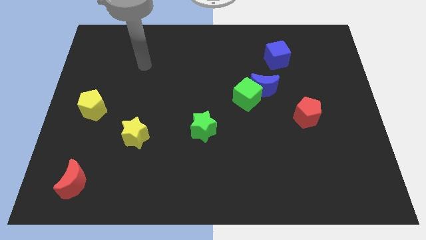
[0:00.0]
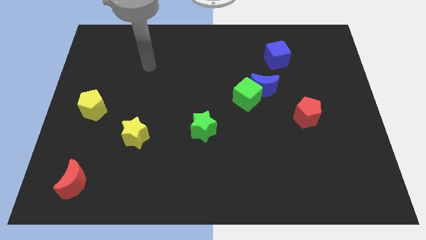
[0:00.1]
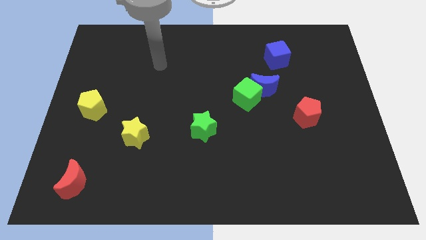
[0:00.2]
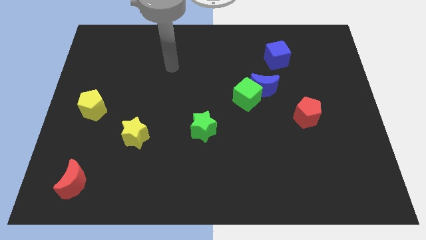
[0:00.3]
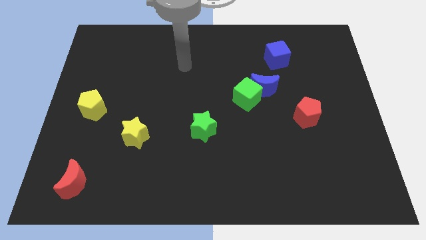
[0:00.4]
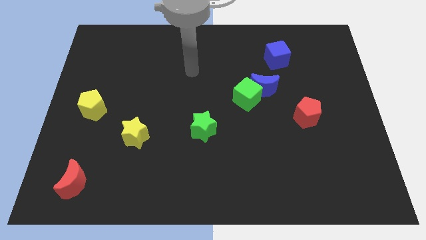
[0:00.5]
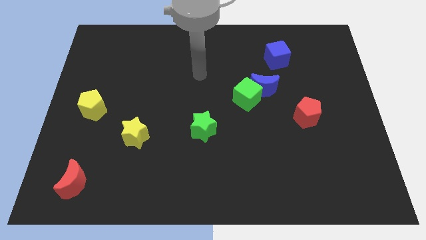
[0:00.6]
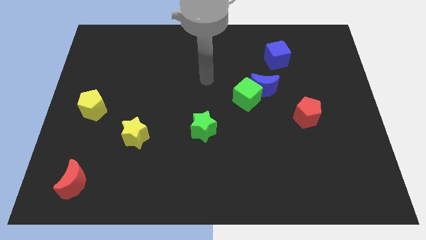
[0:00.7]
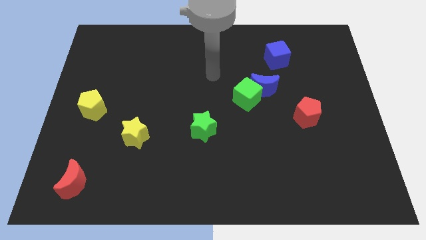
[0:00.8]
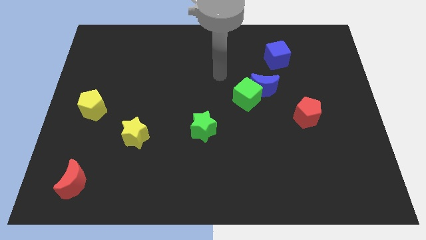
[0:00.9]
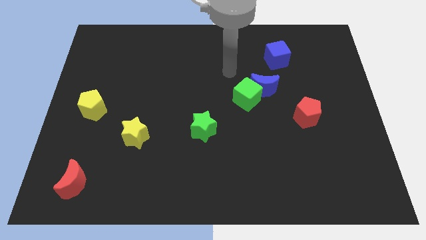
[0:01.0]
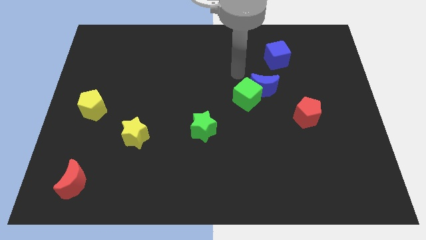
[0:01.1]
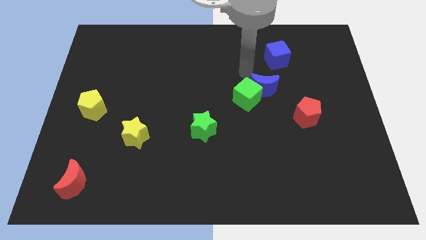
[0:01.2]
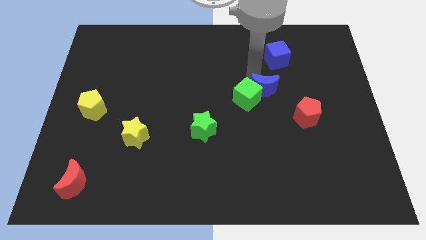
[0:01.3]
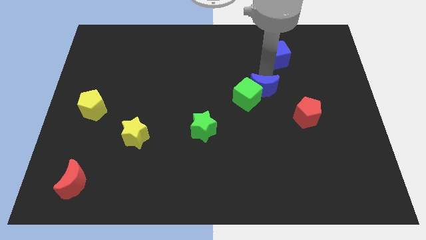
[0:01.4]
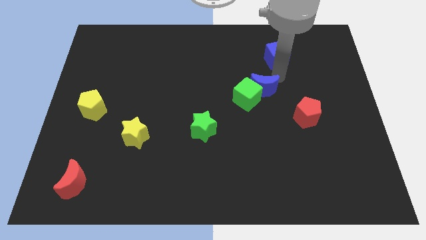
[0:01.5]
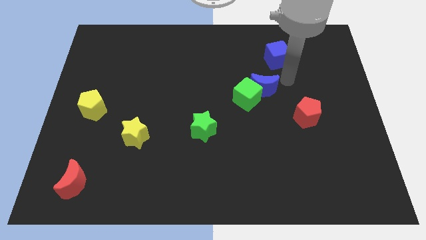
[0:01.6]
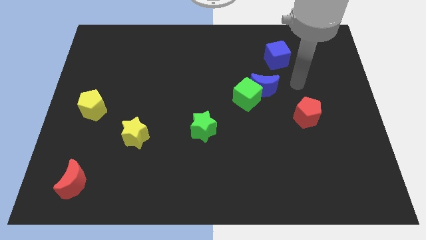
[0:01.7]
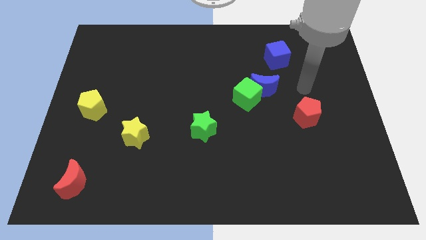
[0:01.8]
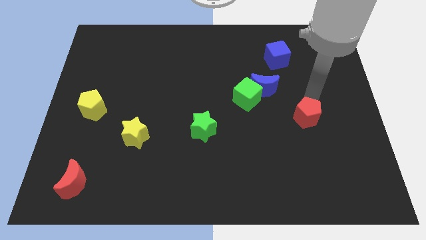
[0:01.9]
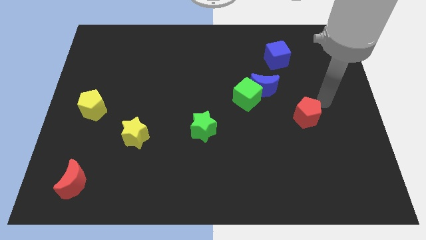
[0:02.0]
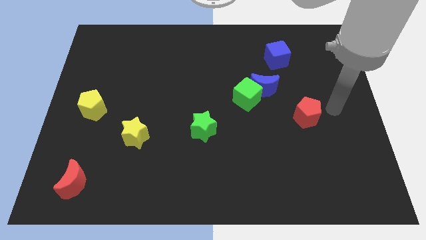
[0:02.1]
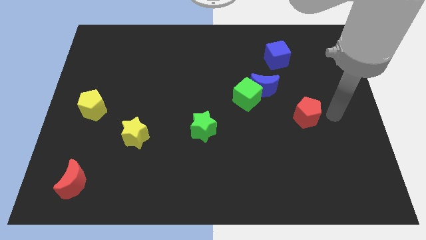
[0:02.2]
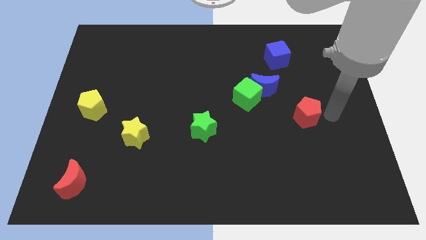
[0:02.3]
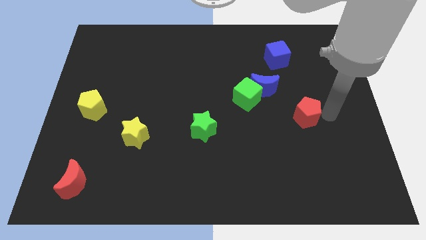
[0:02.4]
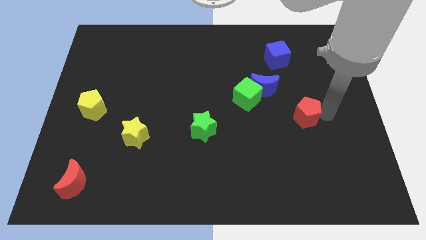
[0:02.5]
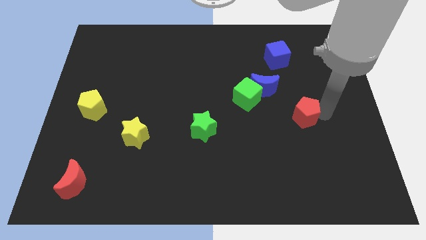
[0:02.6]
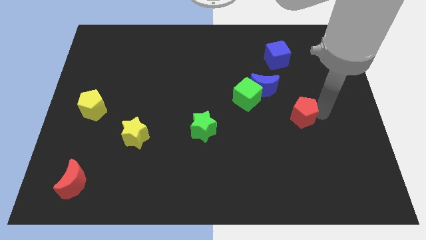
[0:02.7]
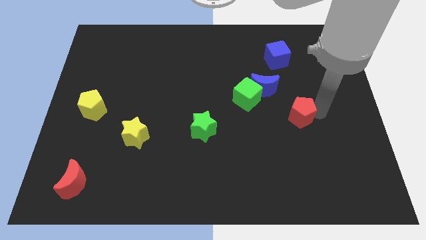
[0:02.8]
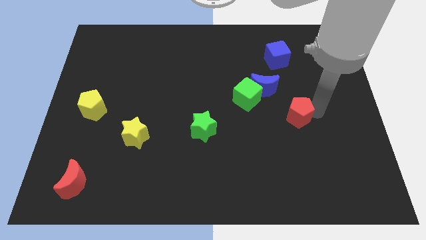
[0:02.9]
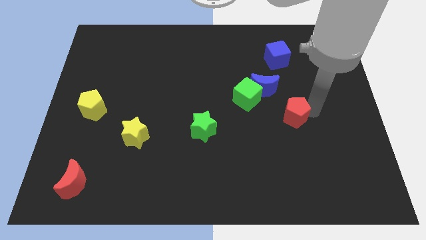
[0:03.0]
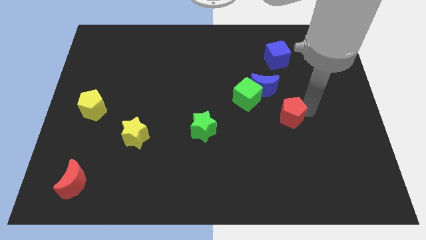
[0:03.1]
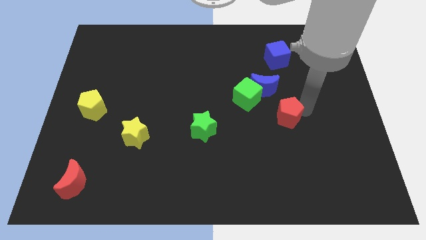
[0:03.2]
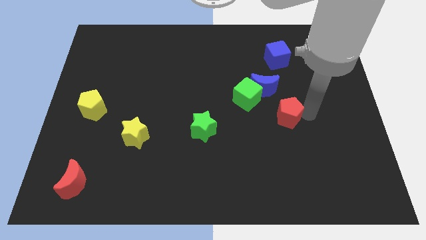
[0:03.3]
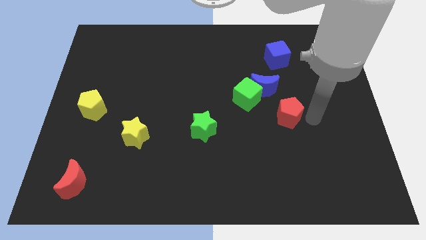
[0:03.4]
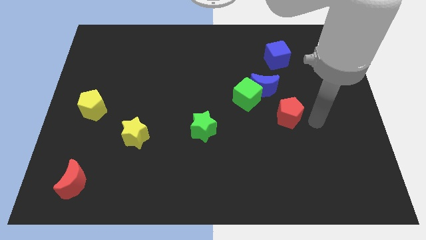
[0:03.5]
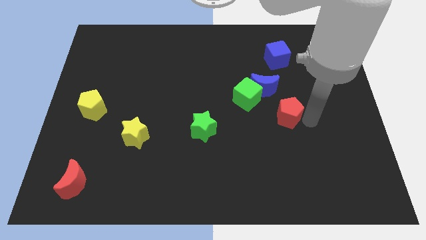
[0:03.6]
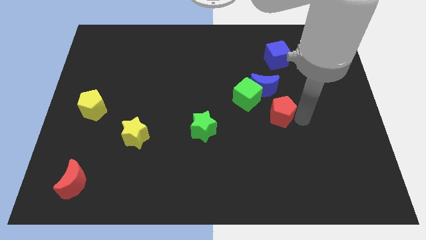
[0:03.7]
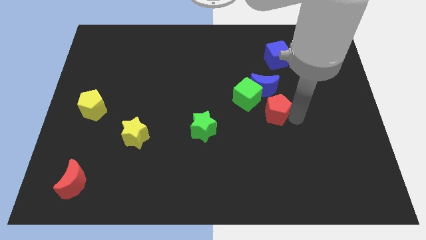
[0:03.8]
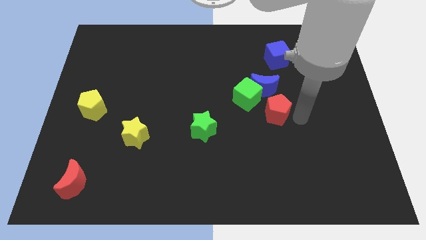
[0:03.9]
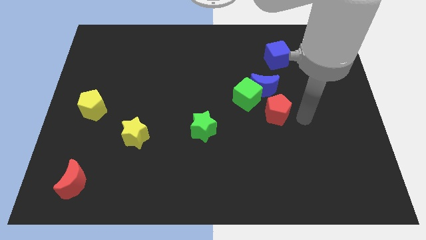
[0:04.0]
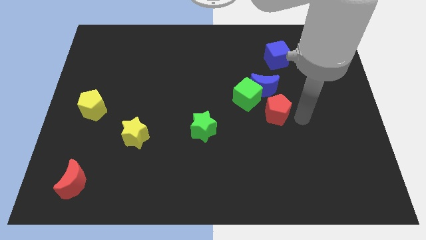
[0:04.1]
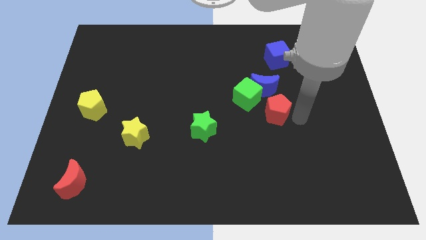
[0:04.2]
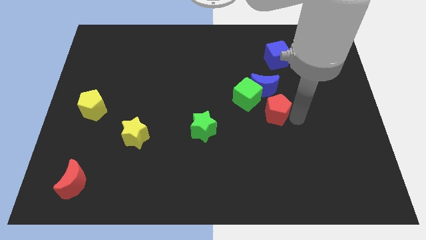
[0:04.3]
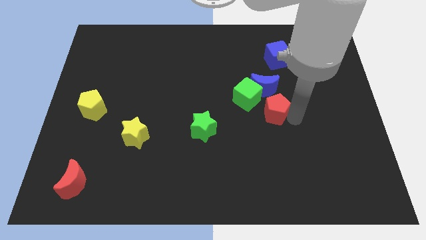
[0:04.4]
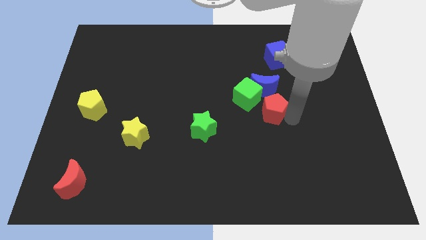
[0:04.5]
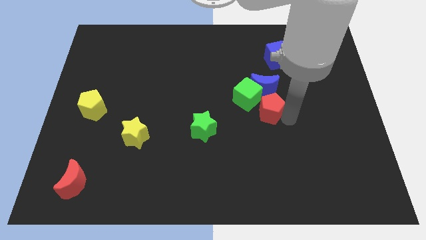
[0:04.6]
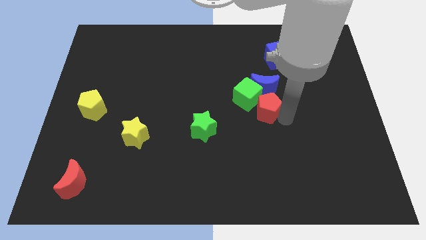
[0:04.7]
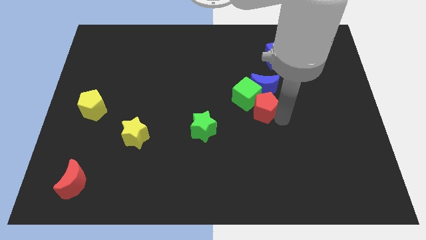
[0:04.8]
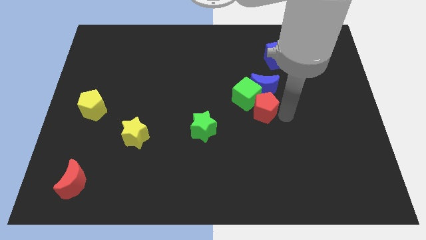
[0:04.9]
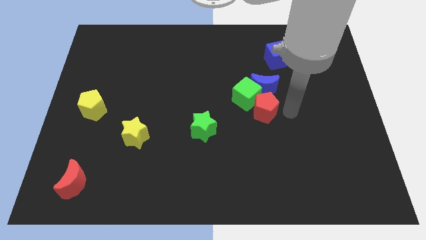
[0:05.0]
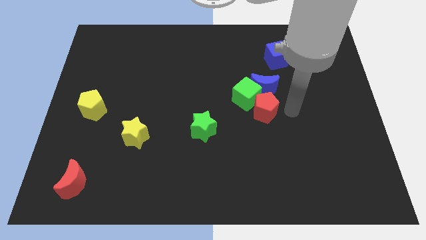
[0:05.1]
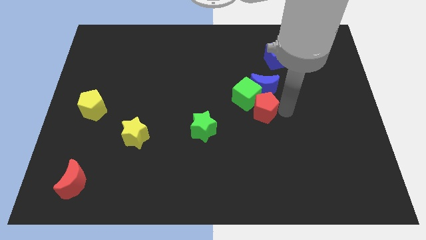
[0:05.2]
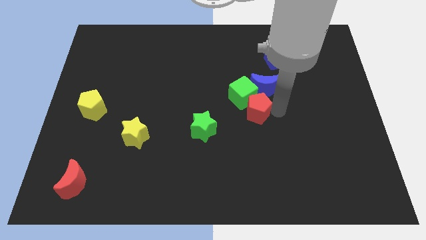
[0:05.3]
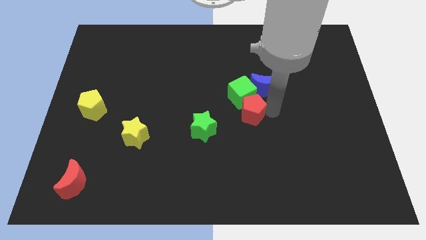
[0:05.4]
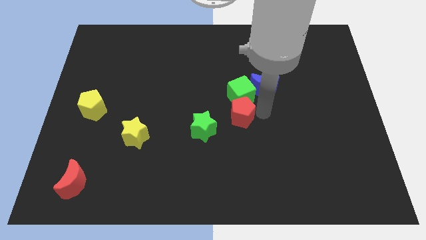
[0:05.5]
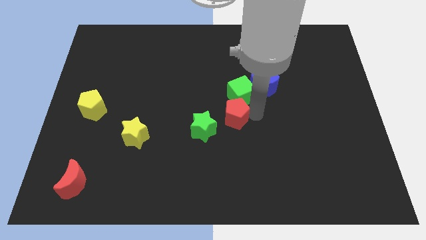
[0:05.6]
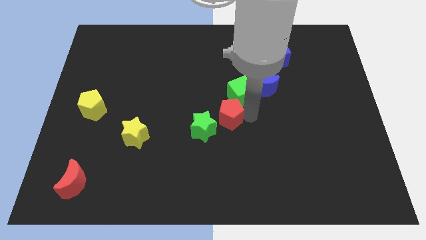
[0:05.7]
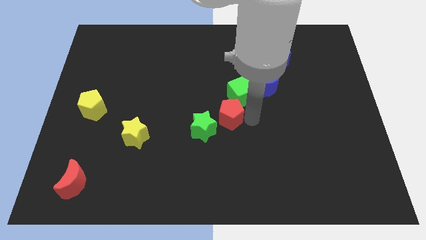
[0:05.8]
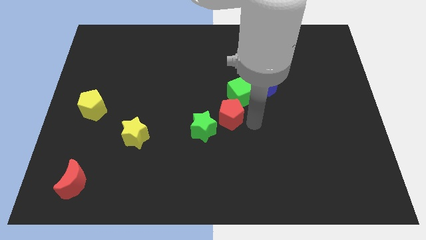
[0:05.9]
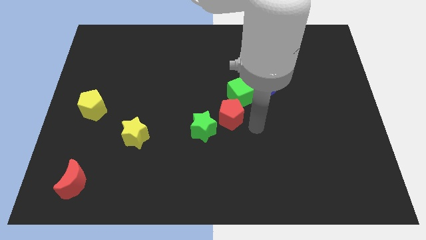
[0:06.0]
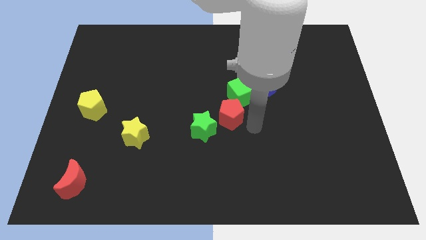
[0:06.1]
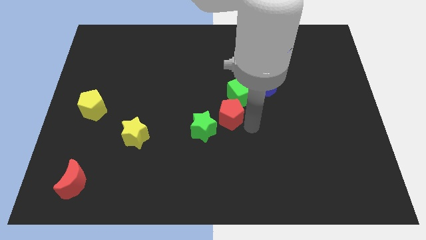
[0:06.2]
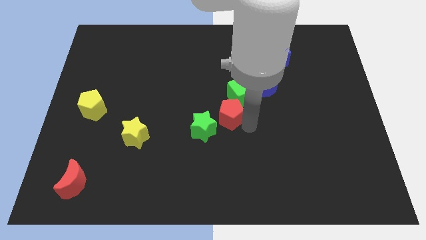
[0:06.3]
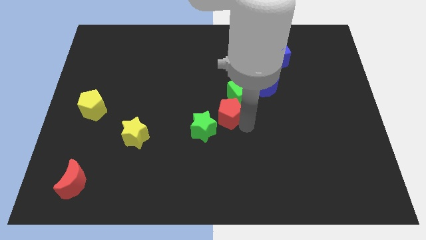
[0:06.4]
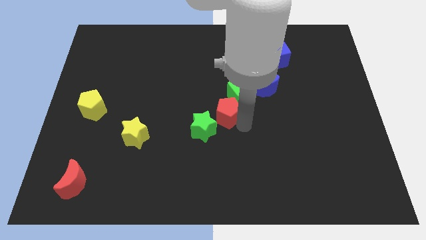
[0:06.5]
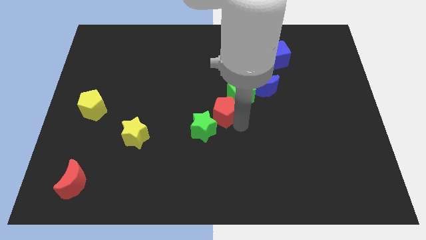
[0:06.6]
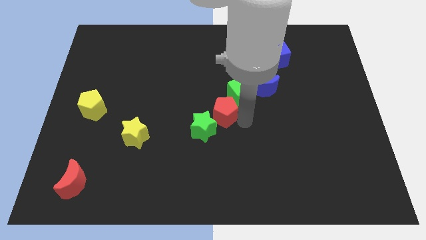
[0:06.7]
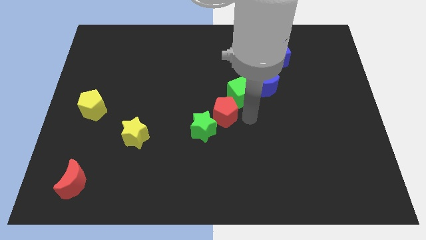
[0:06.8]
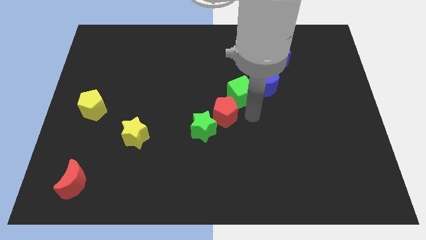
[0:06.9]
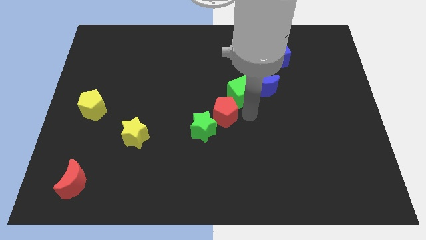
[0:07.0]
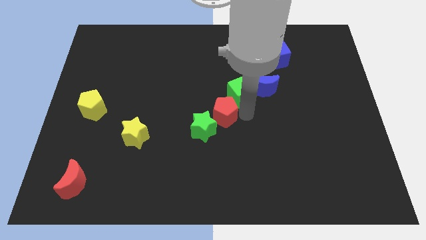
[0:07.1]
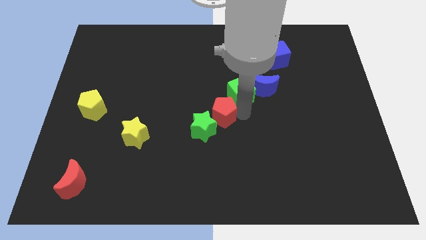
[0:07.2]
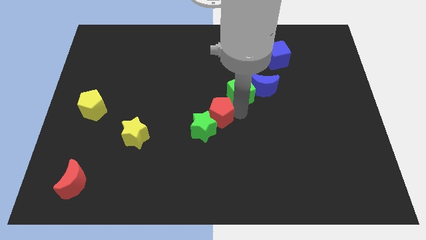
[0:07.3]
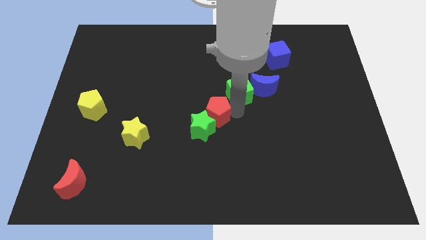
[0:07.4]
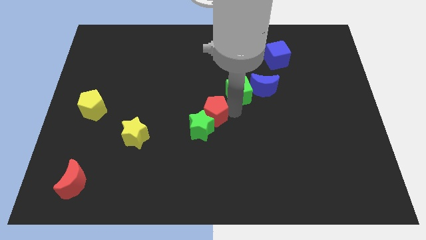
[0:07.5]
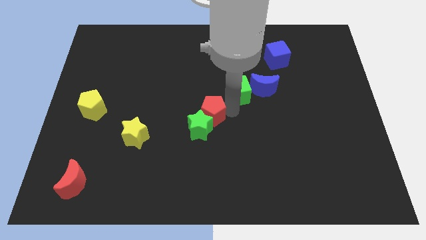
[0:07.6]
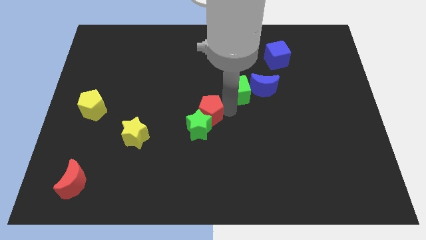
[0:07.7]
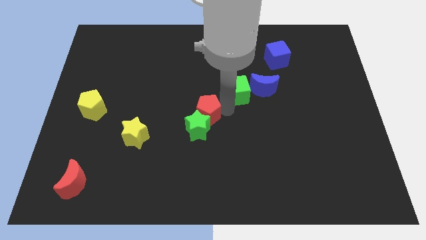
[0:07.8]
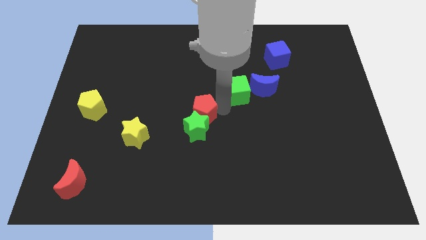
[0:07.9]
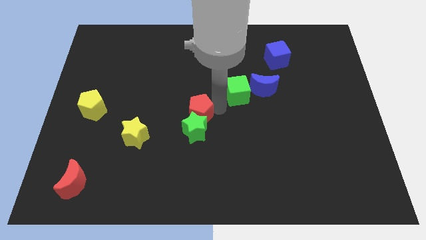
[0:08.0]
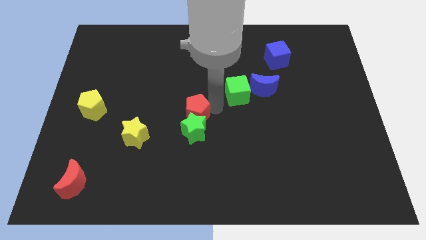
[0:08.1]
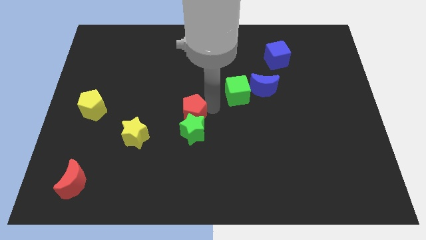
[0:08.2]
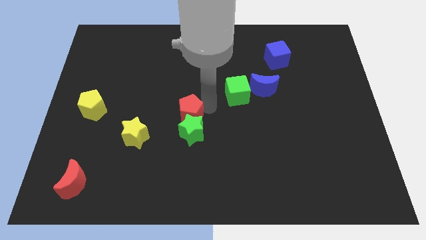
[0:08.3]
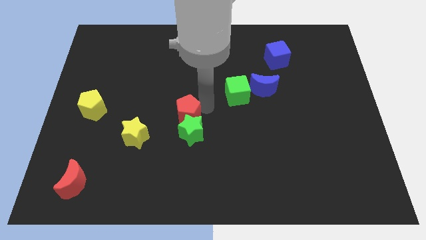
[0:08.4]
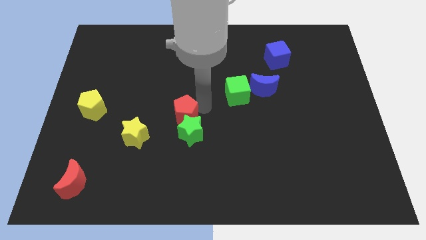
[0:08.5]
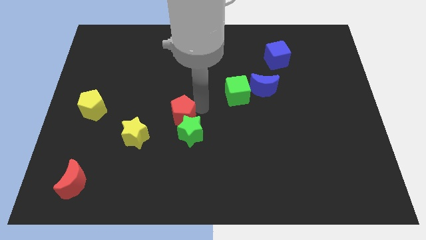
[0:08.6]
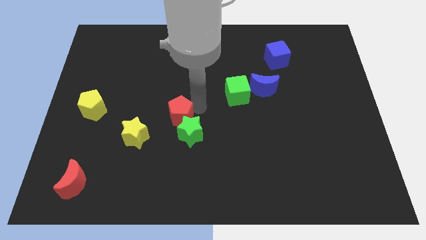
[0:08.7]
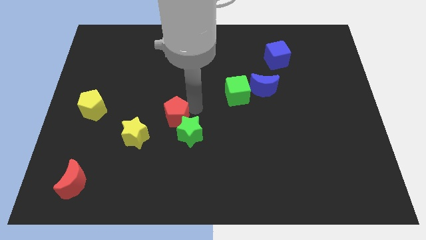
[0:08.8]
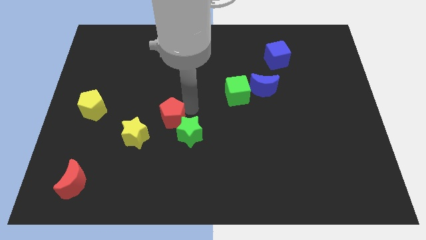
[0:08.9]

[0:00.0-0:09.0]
slide the red pentagon to the left side of the green star
